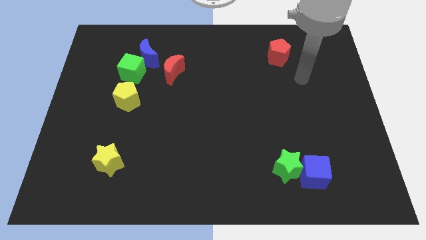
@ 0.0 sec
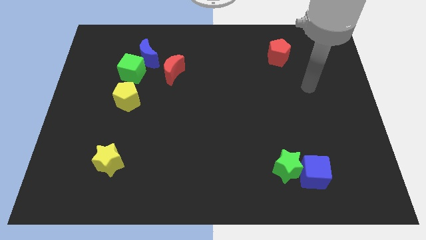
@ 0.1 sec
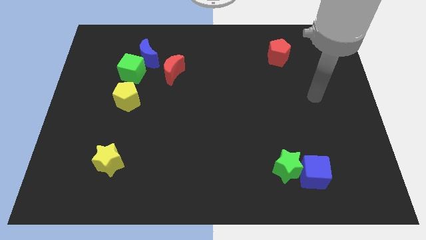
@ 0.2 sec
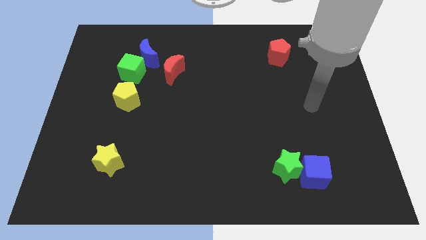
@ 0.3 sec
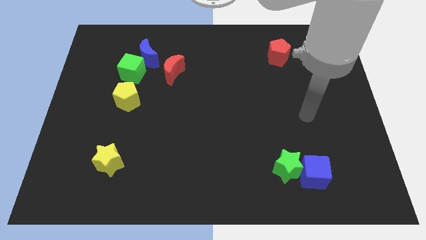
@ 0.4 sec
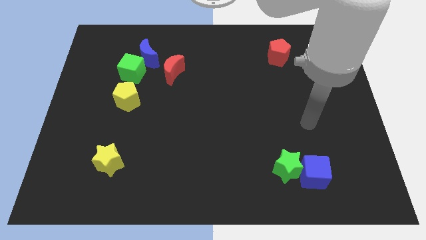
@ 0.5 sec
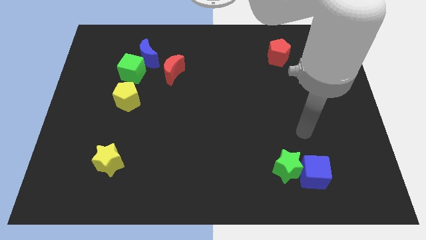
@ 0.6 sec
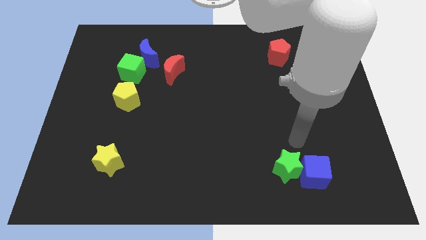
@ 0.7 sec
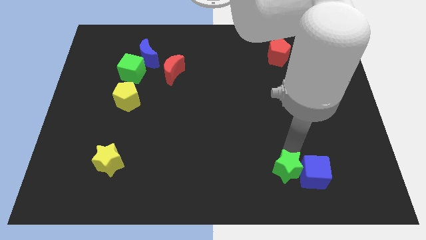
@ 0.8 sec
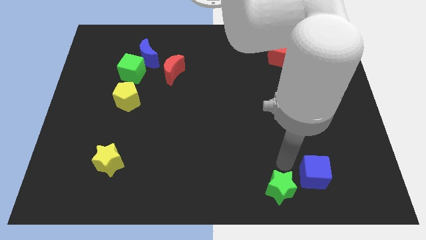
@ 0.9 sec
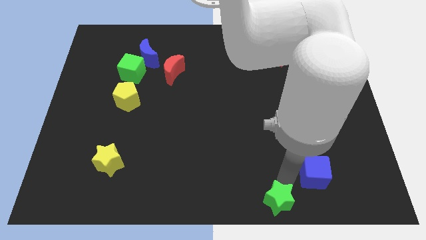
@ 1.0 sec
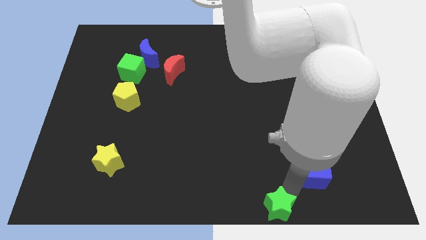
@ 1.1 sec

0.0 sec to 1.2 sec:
separate the blue cube from the green star

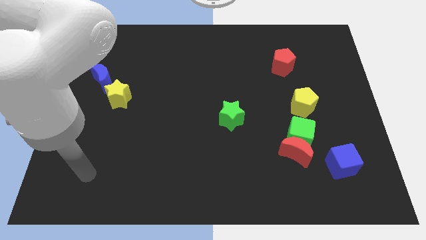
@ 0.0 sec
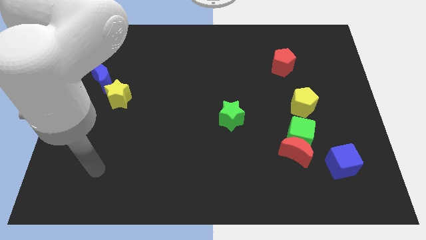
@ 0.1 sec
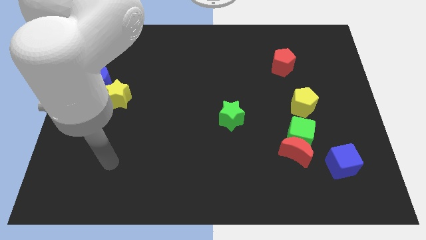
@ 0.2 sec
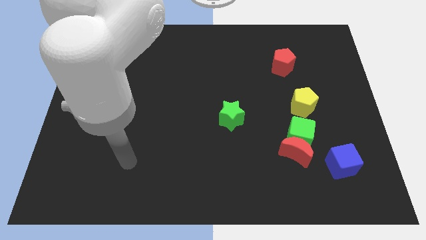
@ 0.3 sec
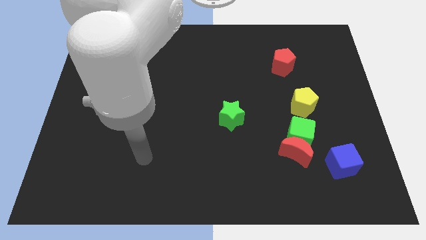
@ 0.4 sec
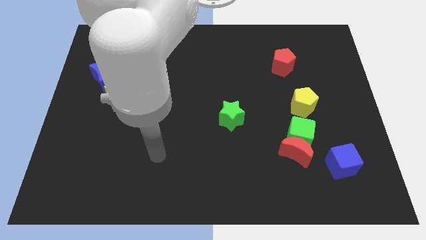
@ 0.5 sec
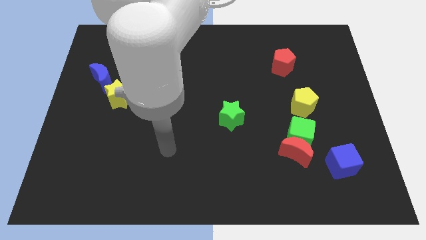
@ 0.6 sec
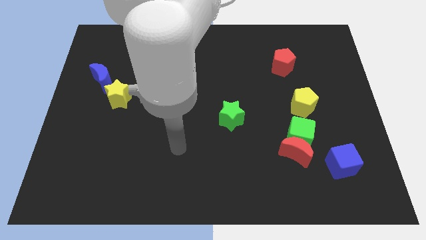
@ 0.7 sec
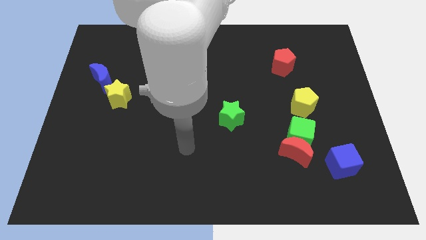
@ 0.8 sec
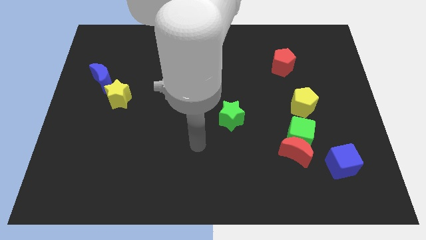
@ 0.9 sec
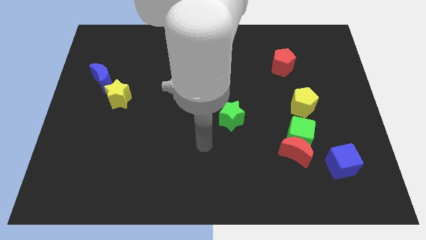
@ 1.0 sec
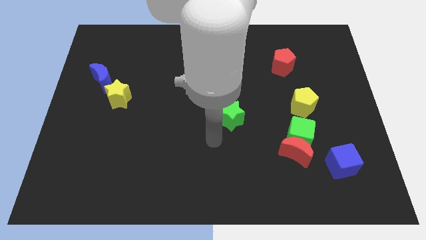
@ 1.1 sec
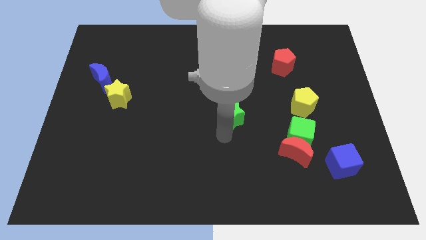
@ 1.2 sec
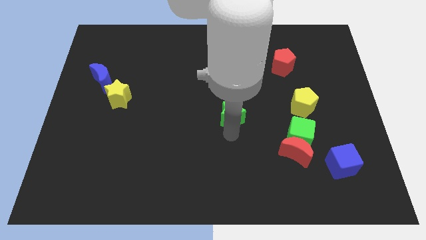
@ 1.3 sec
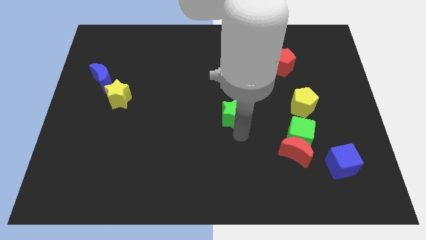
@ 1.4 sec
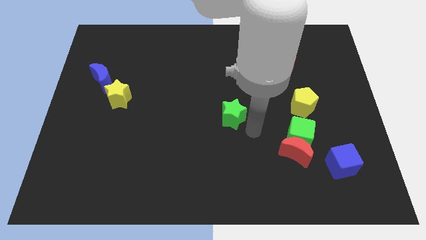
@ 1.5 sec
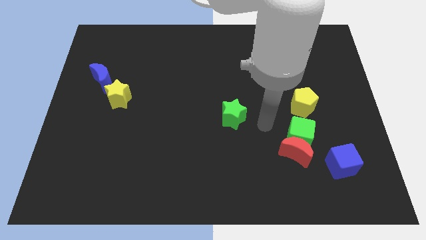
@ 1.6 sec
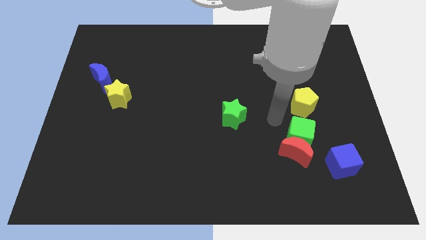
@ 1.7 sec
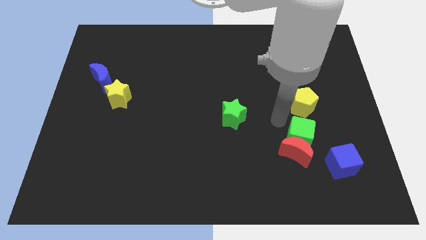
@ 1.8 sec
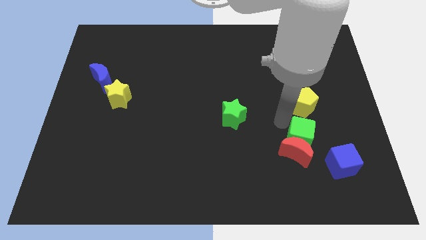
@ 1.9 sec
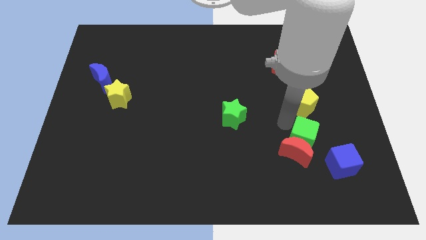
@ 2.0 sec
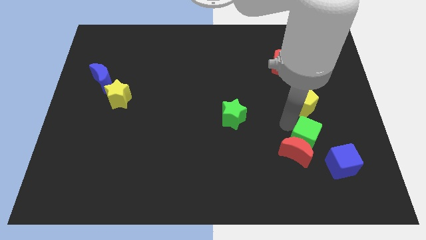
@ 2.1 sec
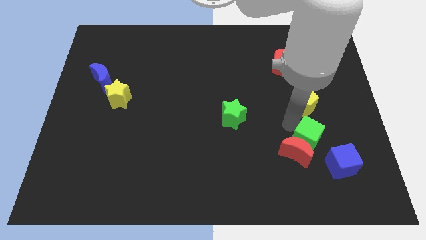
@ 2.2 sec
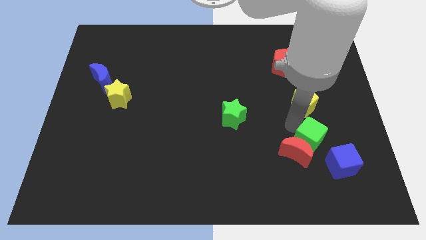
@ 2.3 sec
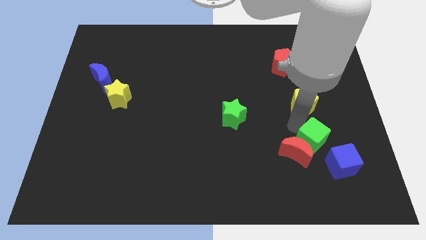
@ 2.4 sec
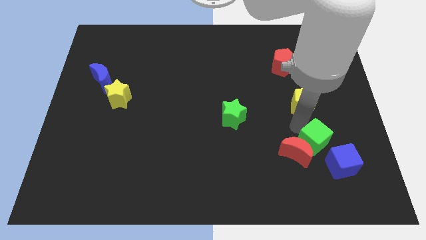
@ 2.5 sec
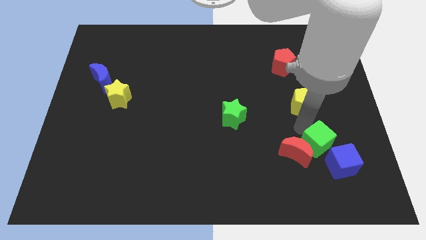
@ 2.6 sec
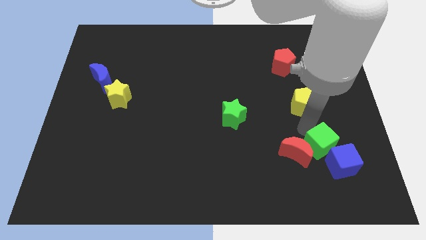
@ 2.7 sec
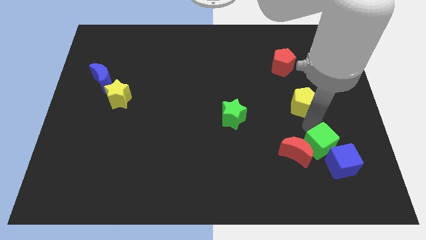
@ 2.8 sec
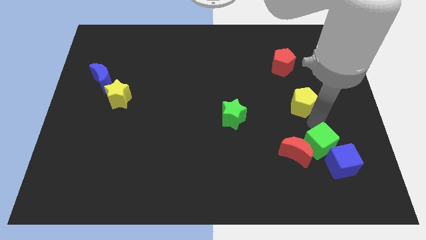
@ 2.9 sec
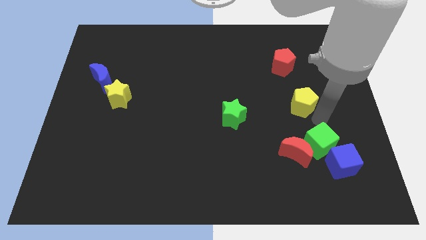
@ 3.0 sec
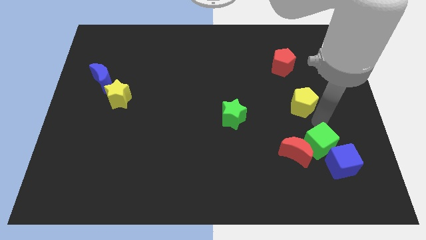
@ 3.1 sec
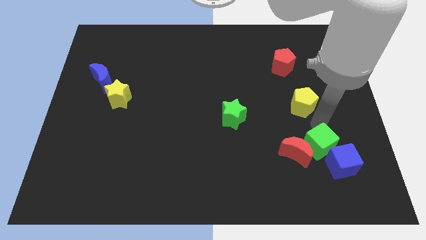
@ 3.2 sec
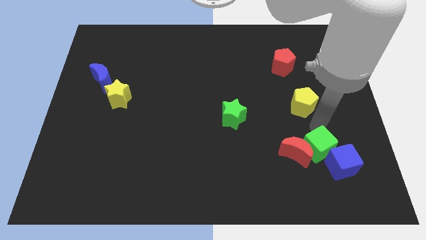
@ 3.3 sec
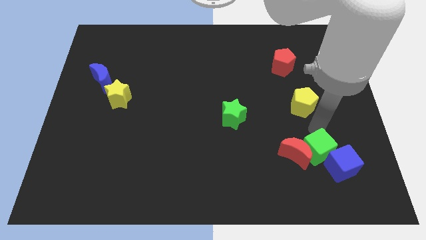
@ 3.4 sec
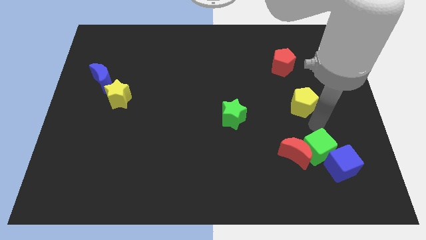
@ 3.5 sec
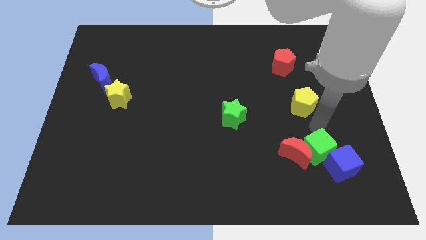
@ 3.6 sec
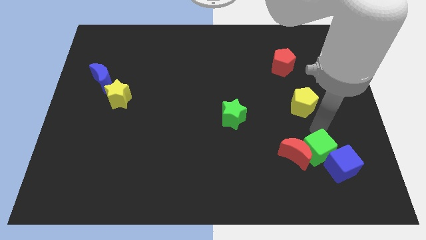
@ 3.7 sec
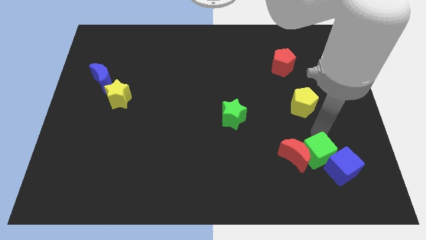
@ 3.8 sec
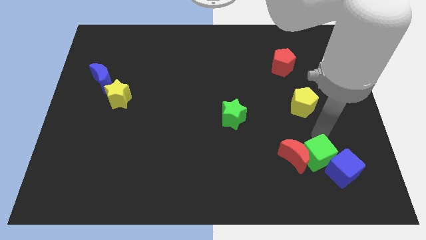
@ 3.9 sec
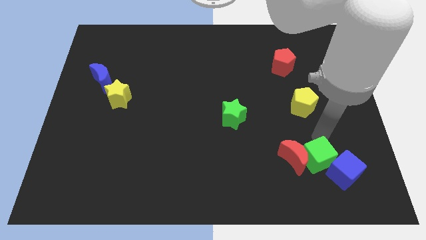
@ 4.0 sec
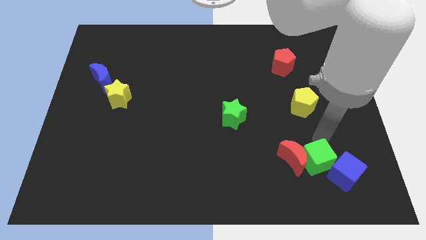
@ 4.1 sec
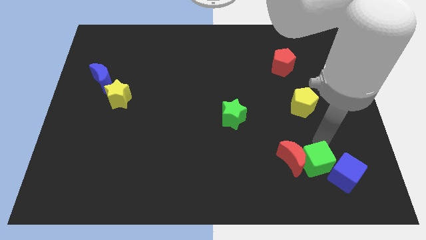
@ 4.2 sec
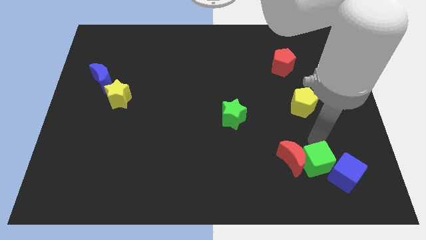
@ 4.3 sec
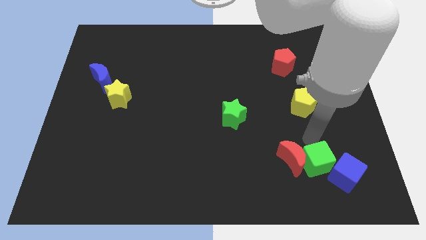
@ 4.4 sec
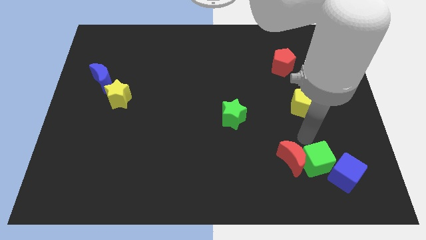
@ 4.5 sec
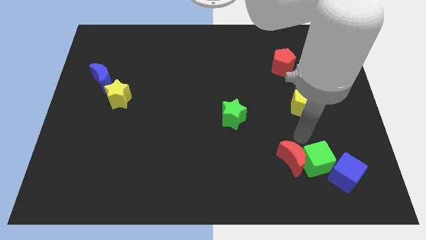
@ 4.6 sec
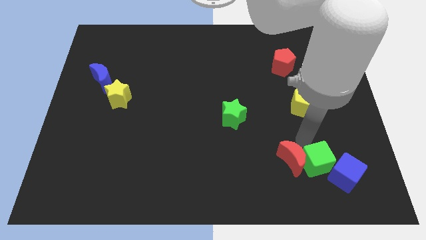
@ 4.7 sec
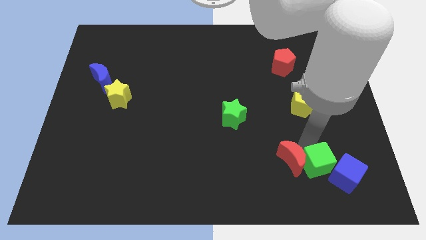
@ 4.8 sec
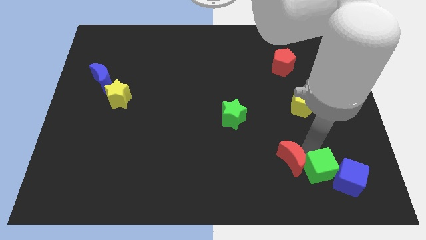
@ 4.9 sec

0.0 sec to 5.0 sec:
move the green cube away from the red moon and yellow pentagon

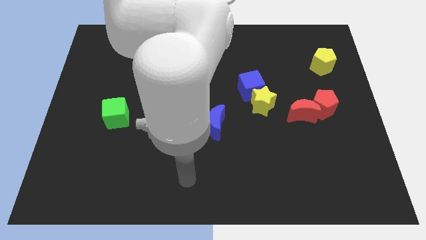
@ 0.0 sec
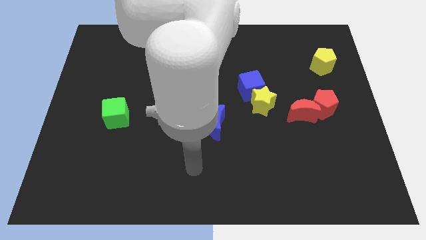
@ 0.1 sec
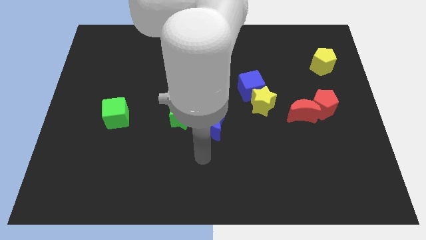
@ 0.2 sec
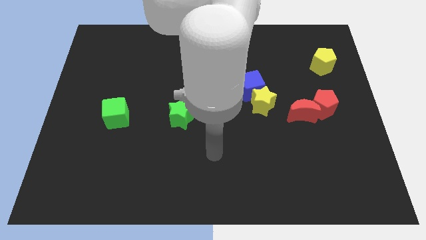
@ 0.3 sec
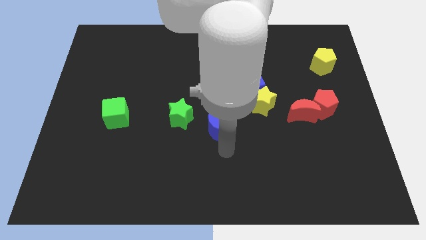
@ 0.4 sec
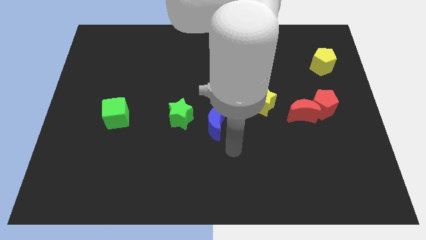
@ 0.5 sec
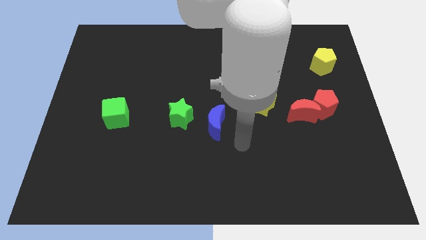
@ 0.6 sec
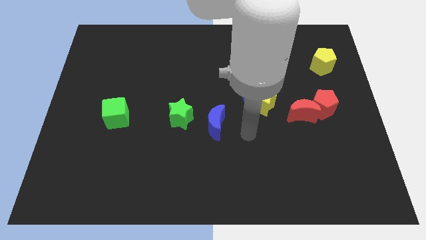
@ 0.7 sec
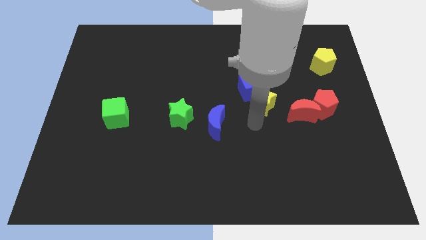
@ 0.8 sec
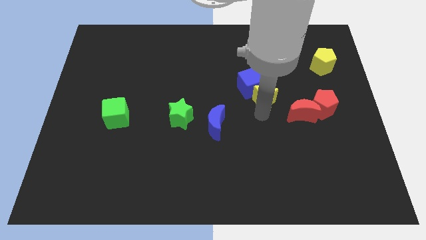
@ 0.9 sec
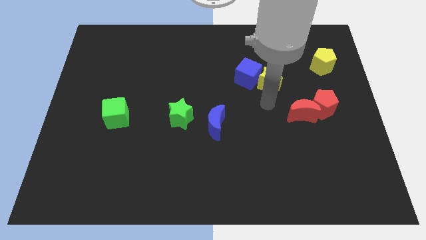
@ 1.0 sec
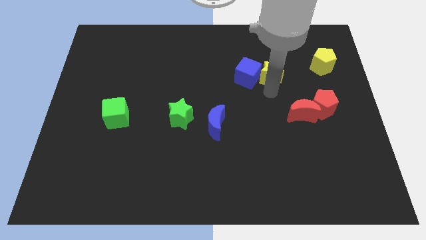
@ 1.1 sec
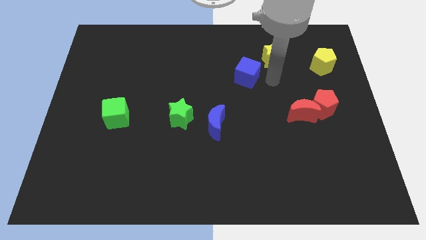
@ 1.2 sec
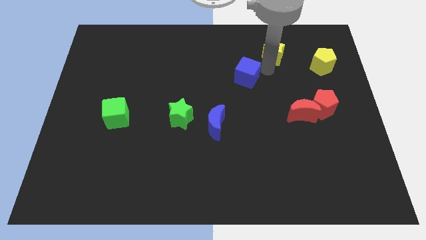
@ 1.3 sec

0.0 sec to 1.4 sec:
pull the blue cube apart from the yellow star

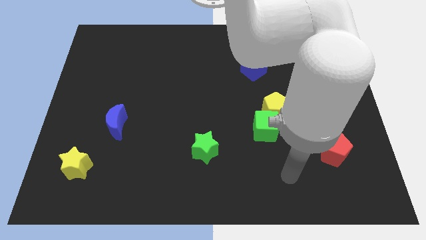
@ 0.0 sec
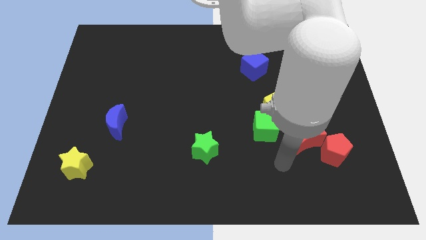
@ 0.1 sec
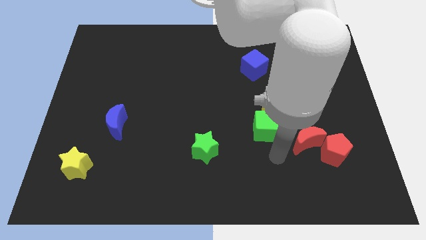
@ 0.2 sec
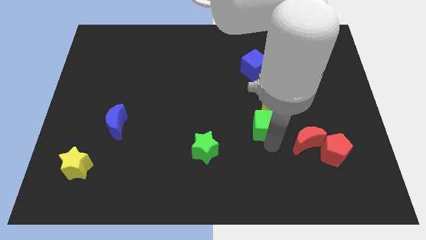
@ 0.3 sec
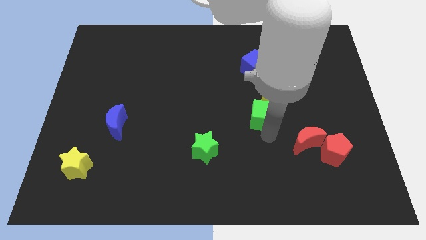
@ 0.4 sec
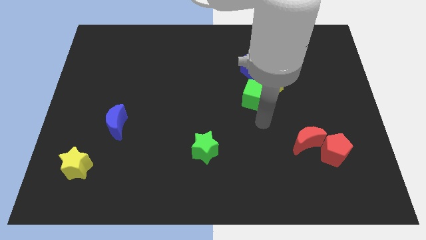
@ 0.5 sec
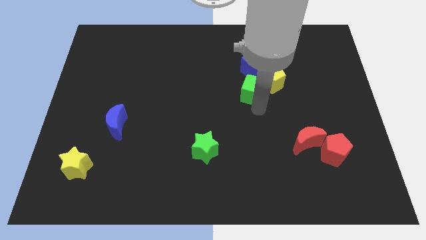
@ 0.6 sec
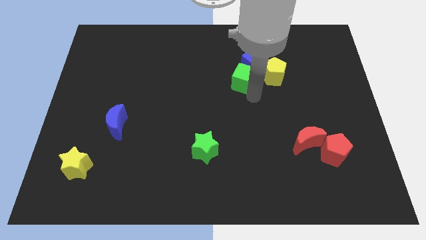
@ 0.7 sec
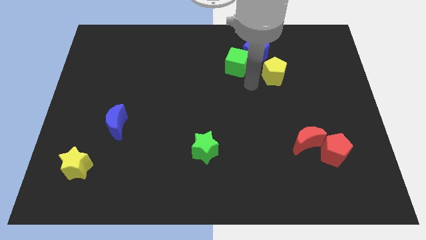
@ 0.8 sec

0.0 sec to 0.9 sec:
separate the yellow pentagon from the green cube

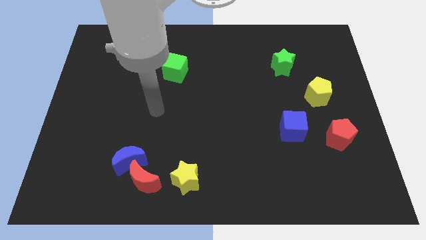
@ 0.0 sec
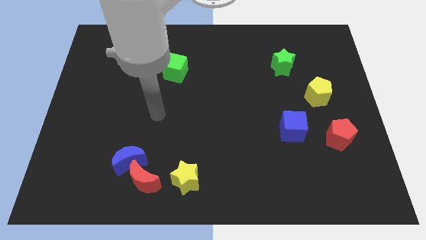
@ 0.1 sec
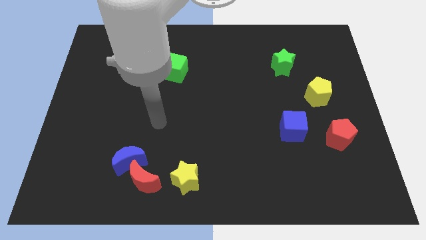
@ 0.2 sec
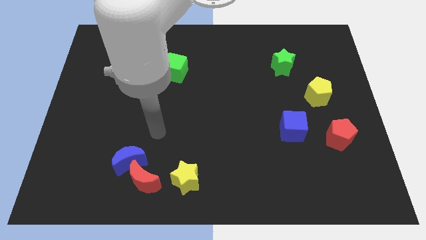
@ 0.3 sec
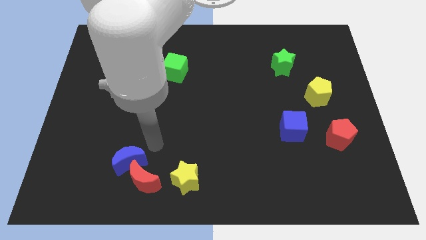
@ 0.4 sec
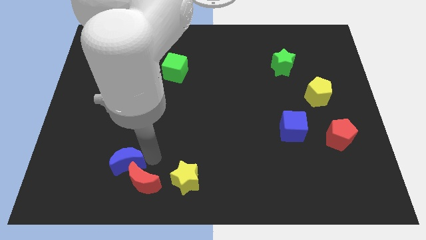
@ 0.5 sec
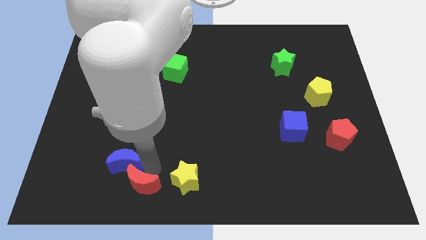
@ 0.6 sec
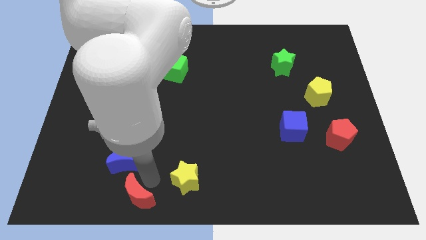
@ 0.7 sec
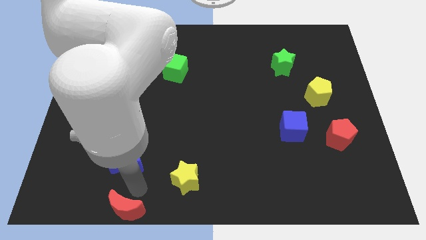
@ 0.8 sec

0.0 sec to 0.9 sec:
move the blue moon away from the red moon
